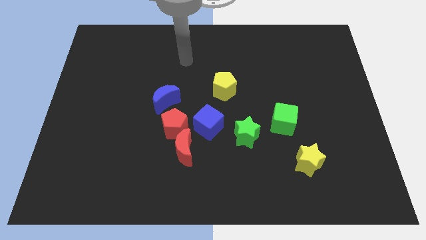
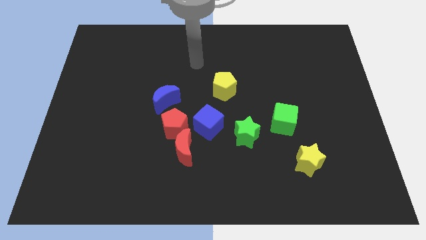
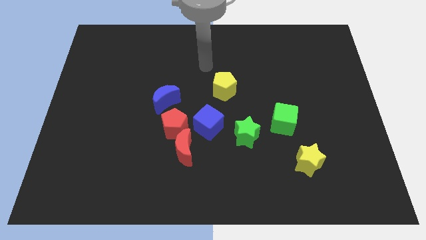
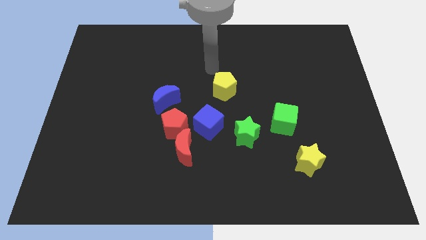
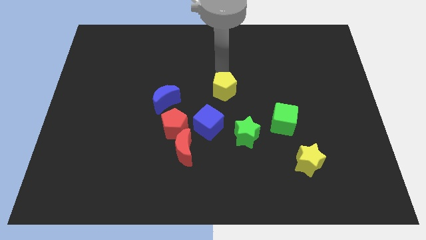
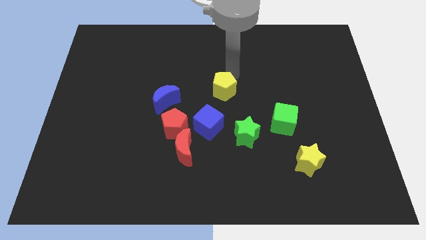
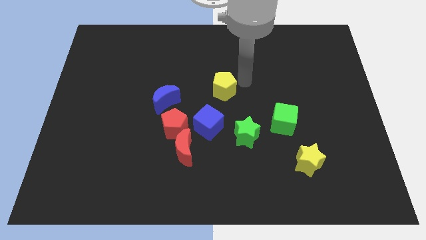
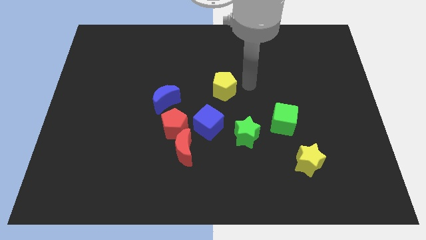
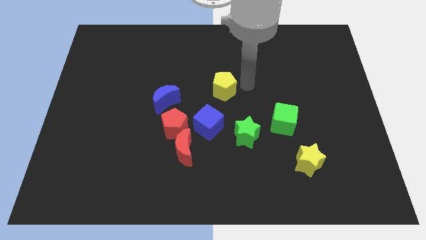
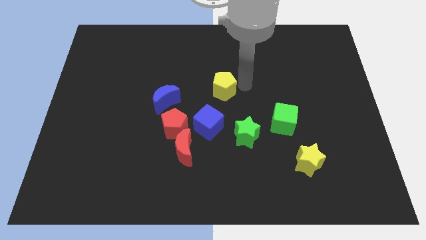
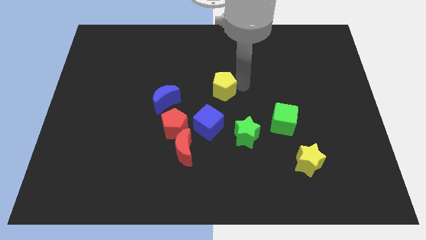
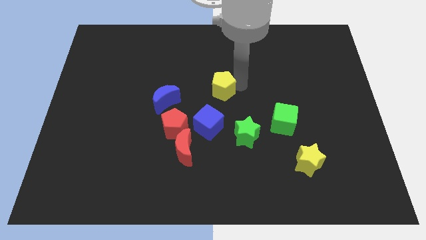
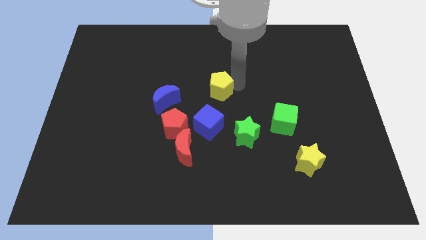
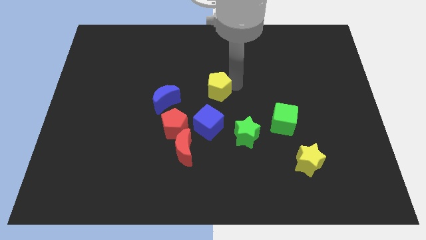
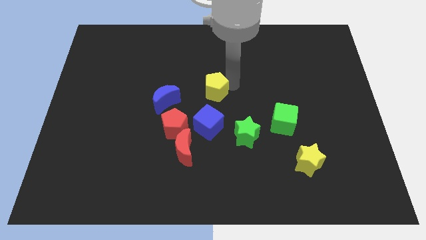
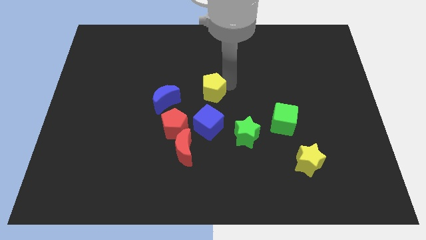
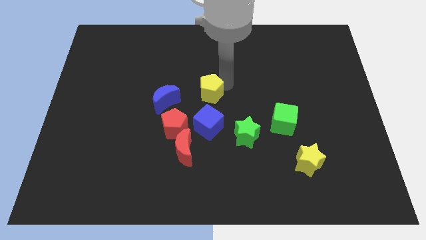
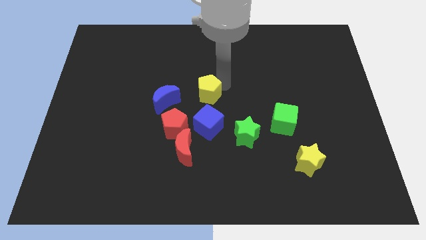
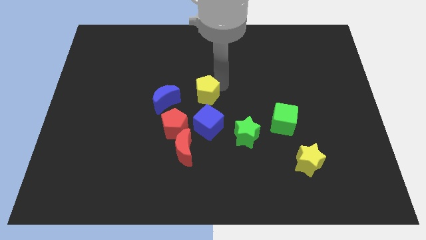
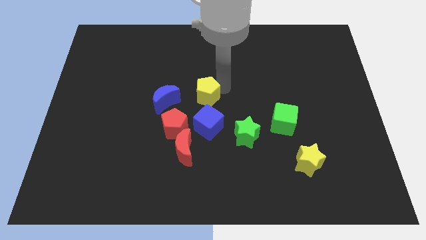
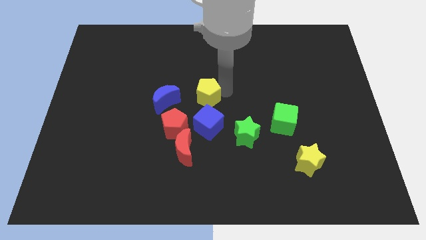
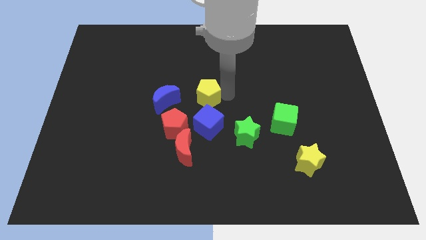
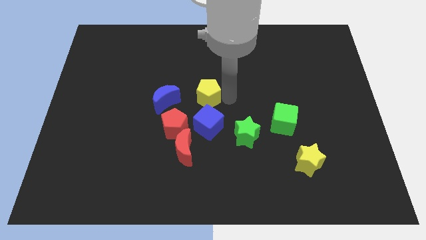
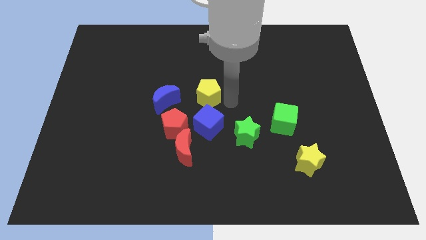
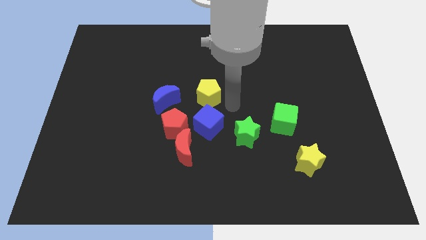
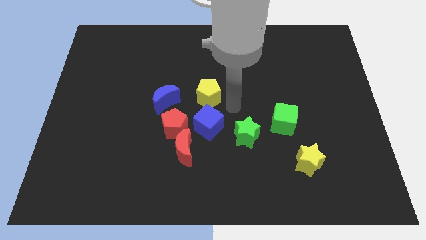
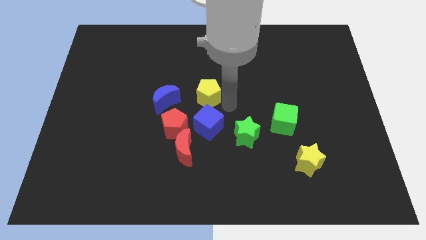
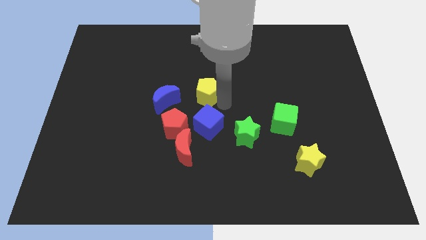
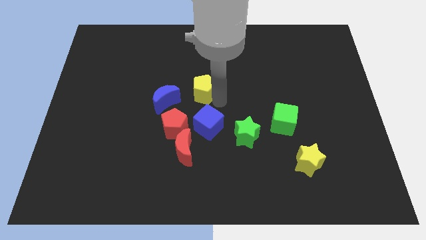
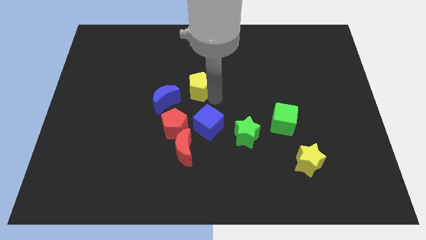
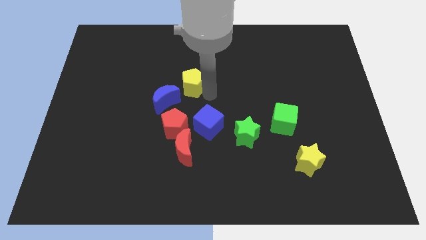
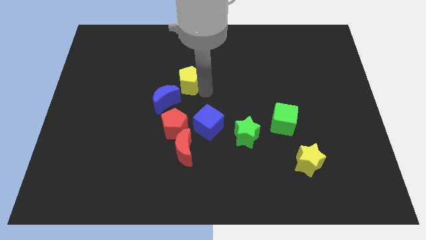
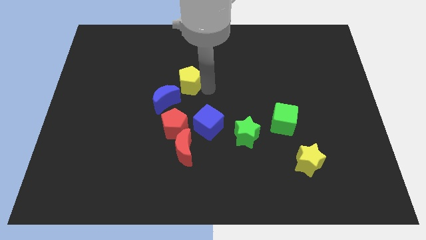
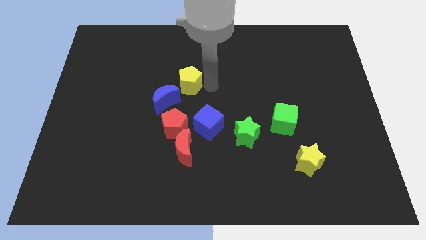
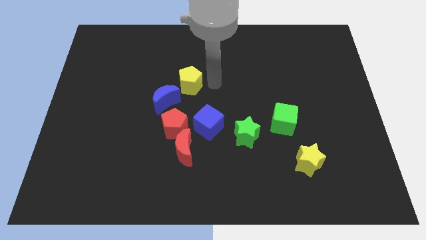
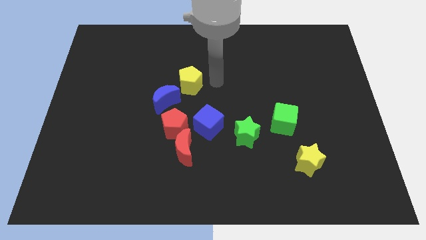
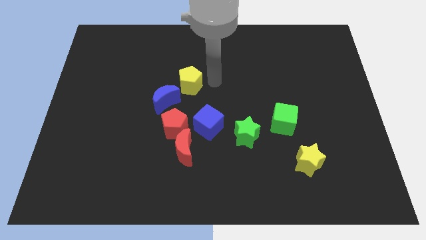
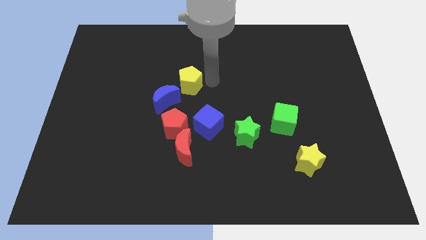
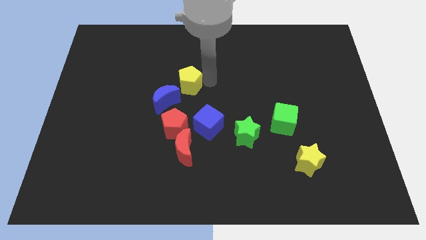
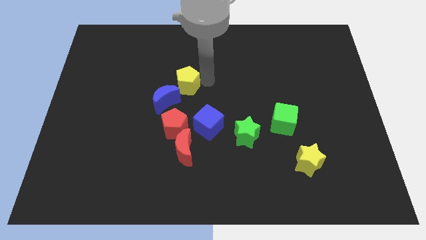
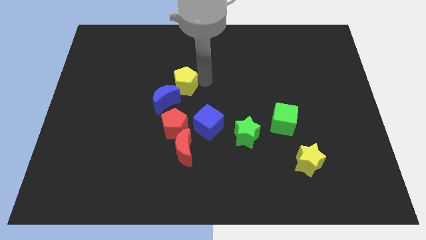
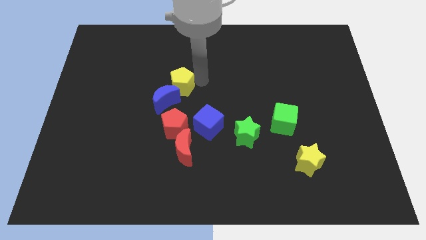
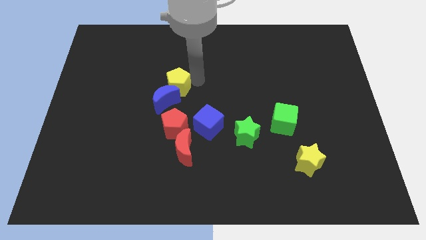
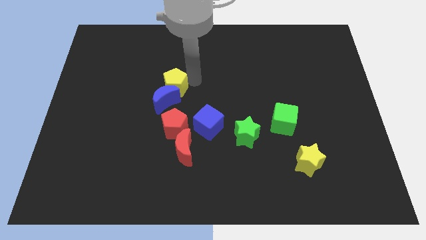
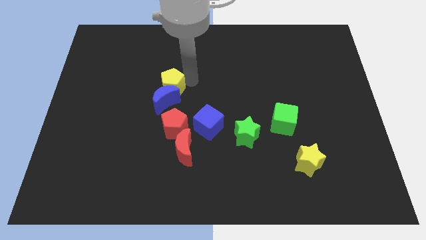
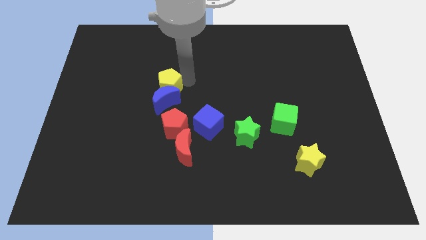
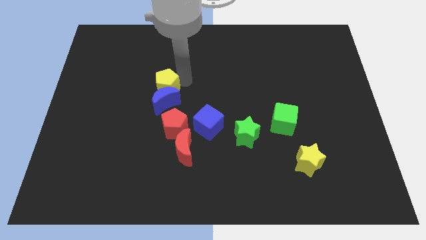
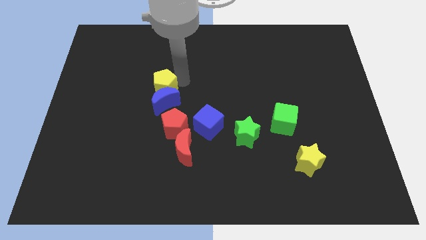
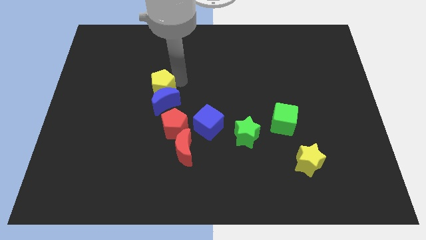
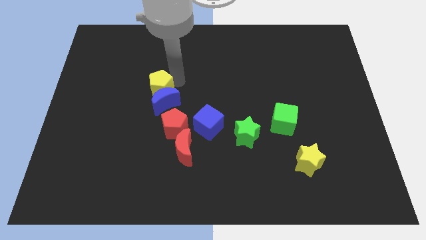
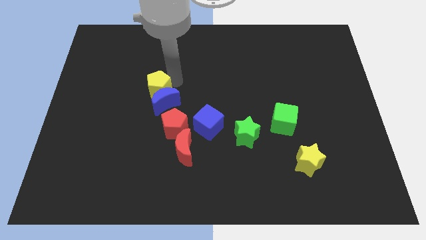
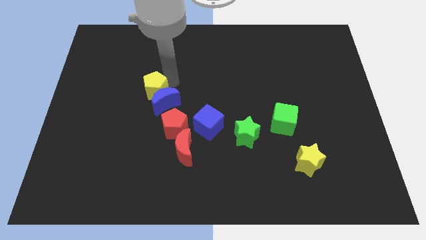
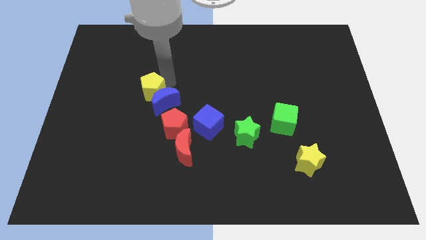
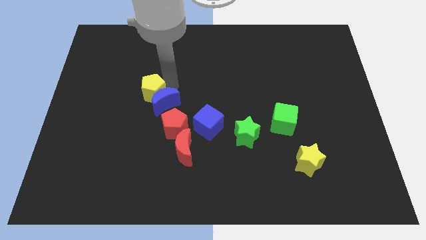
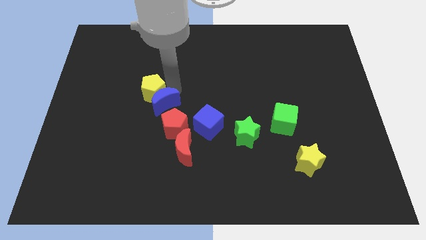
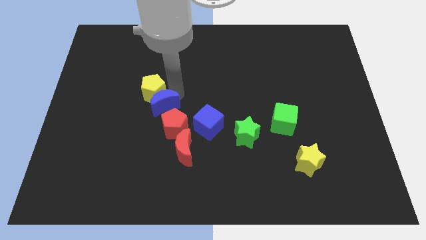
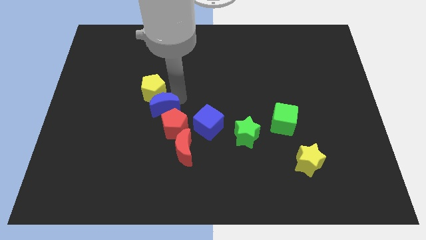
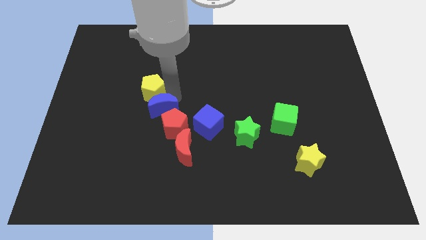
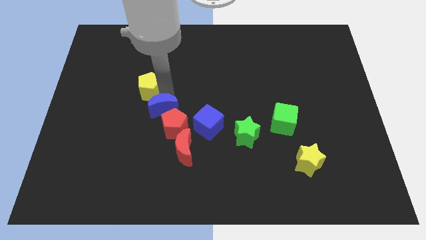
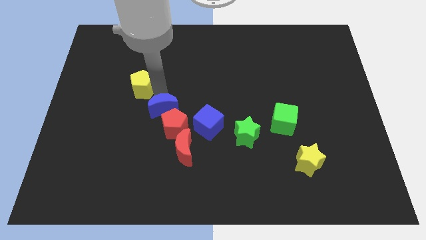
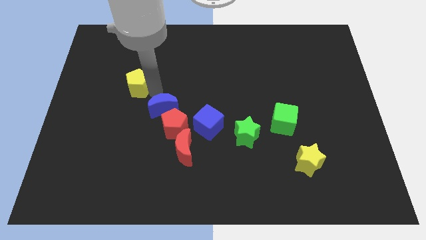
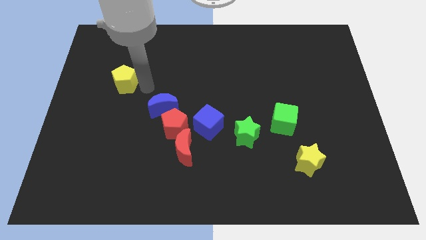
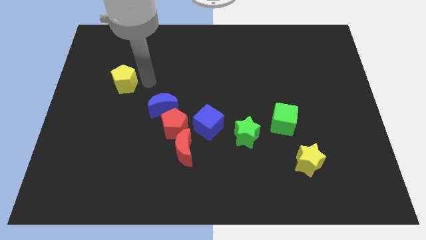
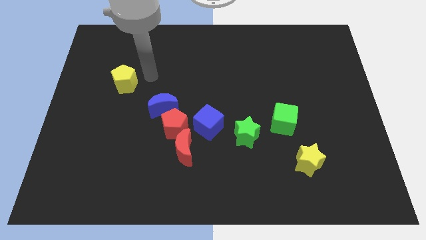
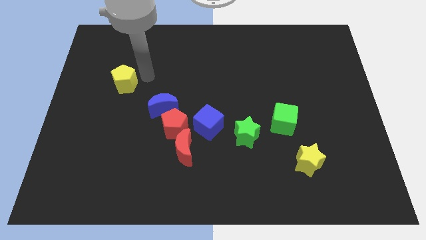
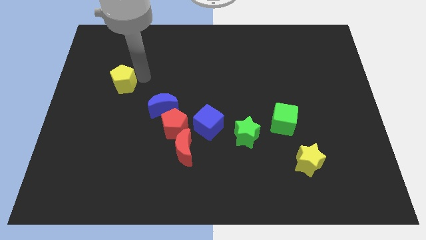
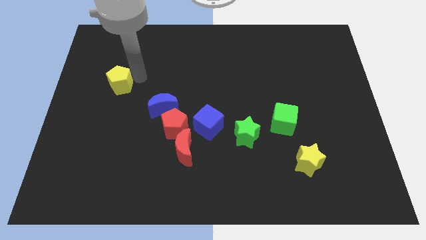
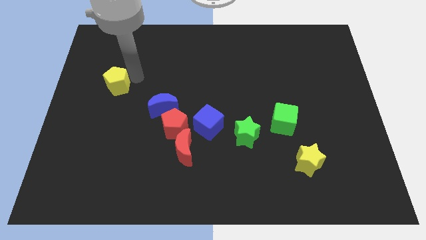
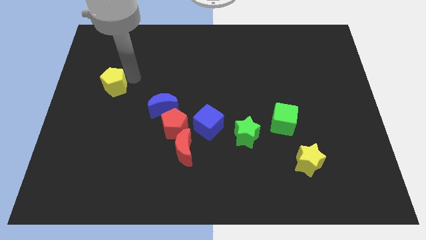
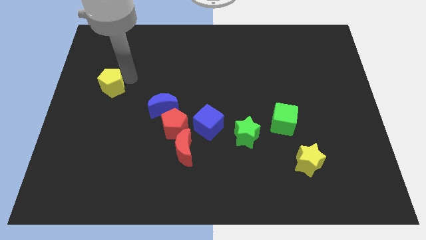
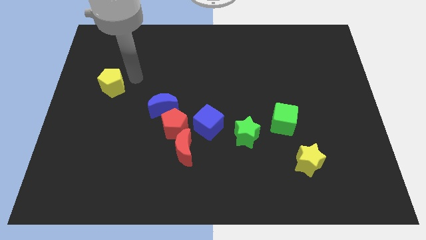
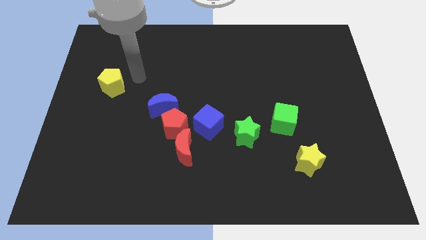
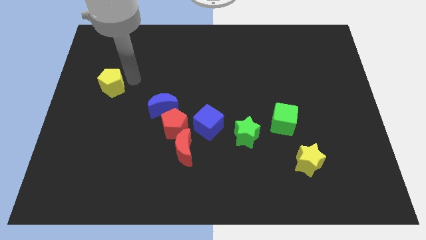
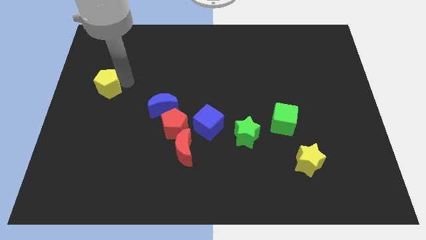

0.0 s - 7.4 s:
slide the yellow pentagon to the center left
